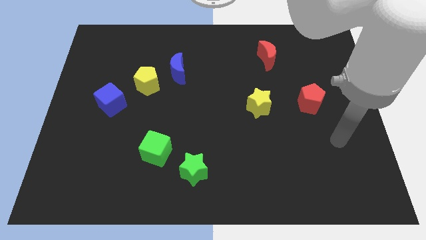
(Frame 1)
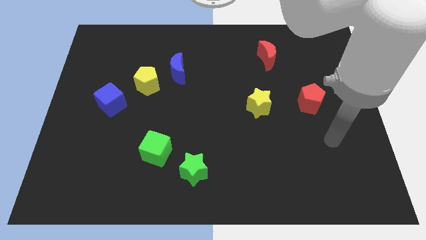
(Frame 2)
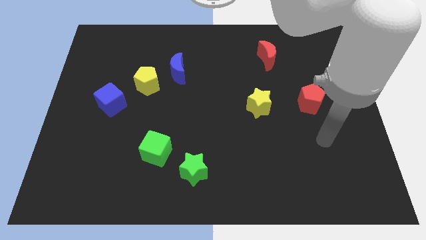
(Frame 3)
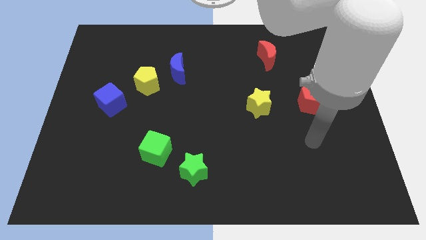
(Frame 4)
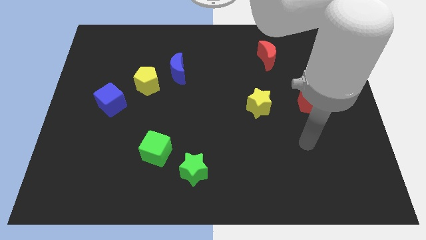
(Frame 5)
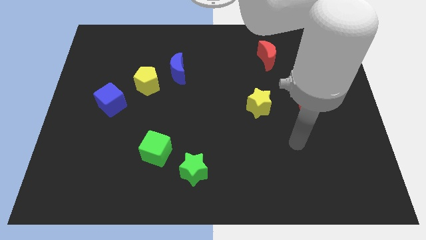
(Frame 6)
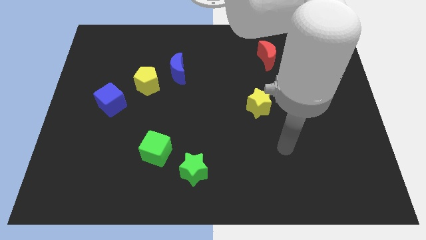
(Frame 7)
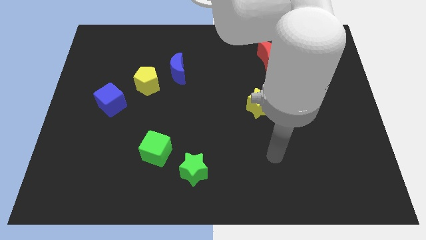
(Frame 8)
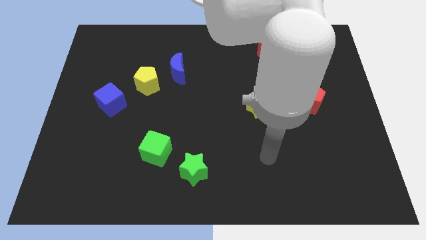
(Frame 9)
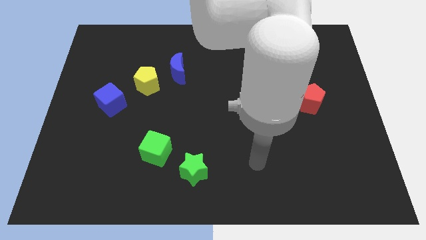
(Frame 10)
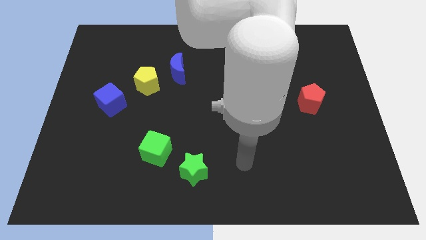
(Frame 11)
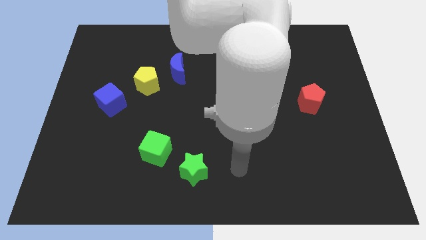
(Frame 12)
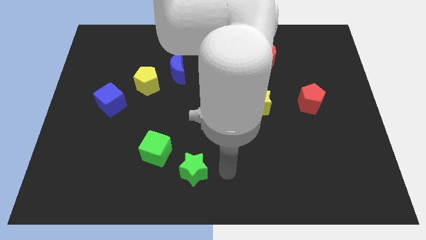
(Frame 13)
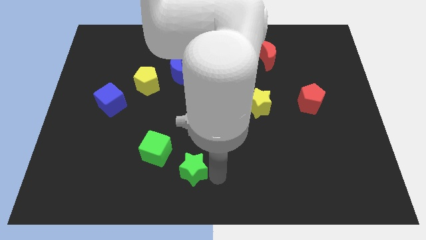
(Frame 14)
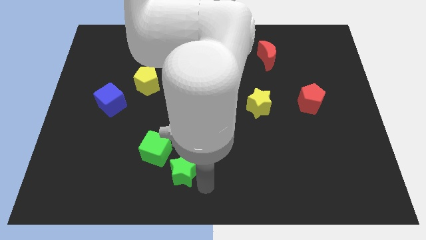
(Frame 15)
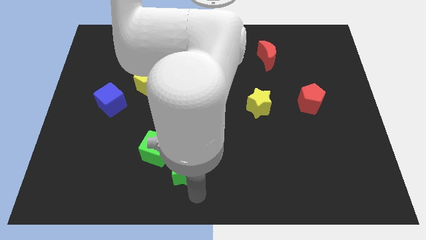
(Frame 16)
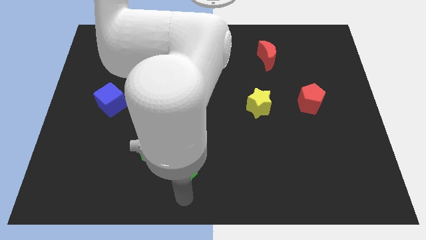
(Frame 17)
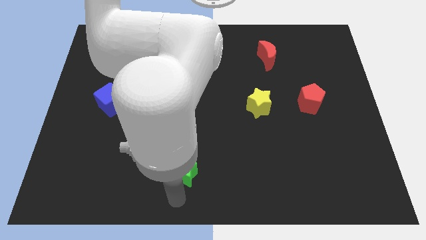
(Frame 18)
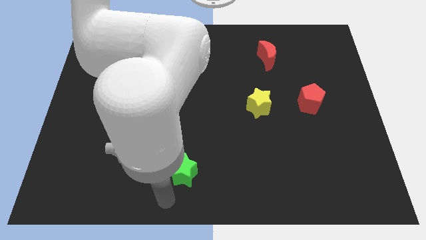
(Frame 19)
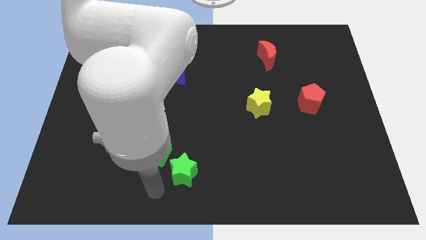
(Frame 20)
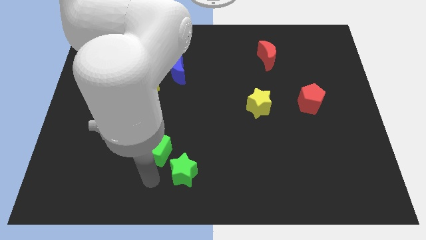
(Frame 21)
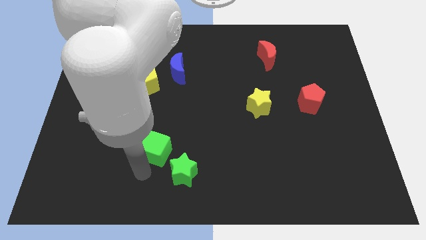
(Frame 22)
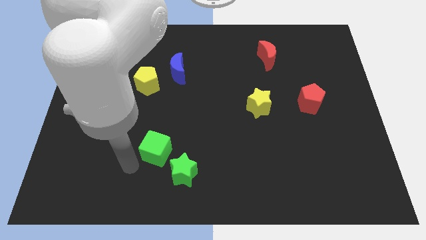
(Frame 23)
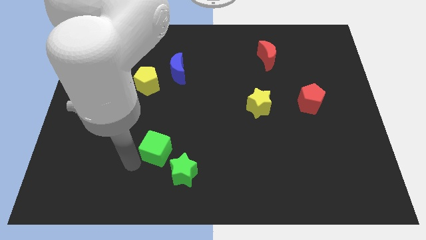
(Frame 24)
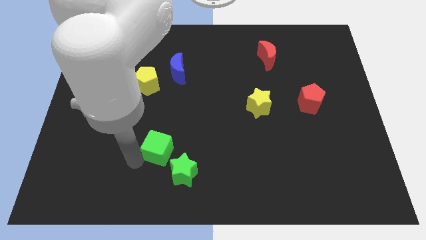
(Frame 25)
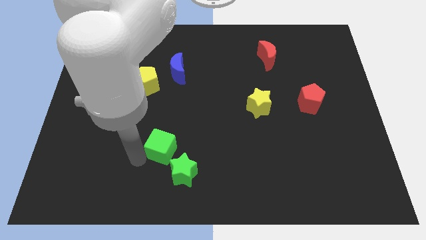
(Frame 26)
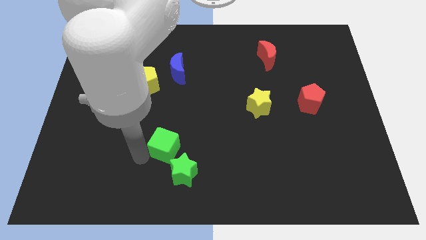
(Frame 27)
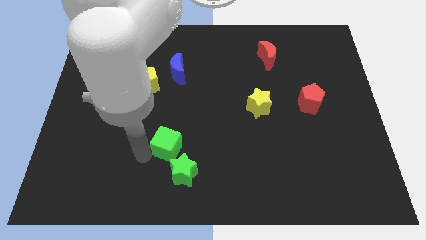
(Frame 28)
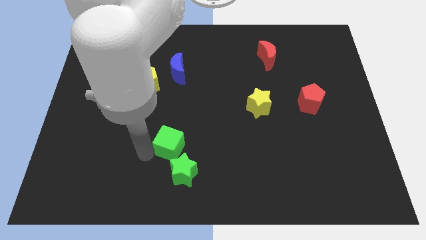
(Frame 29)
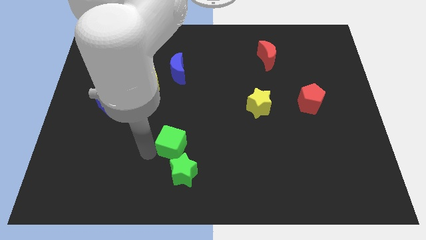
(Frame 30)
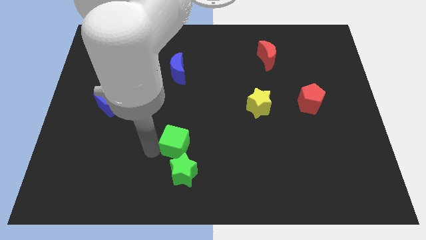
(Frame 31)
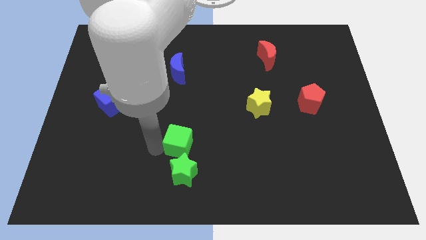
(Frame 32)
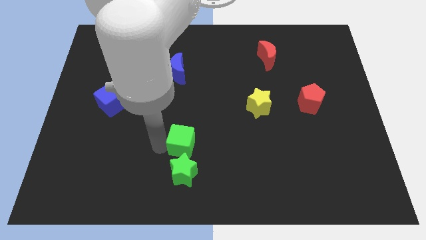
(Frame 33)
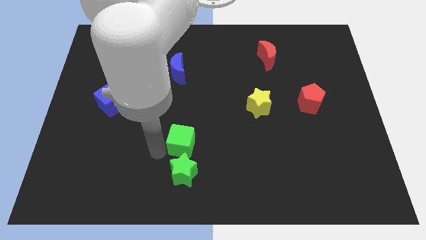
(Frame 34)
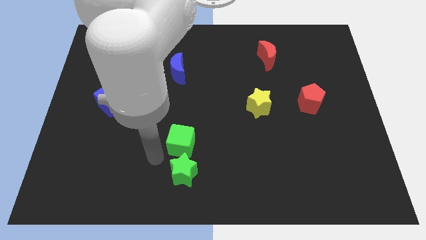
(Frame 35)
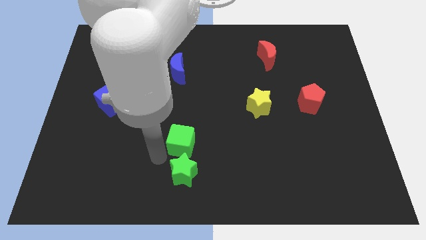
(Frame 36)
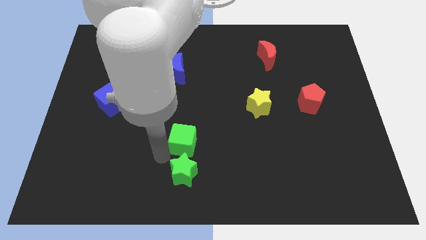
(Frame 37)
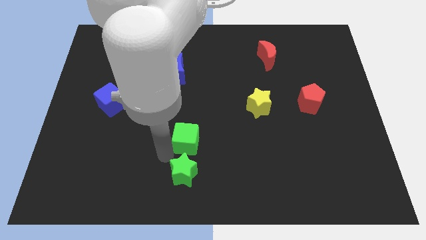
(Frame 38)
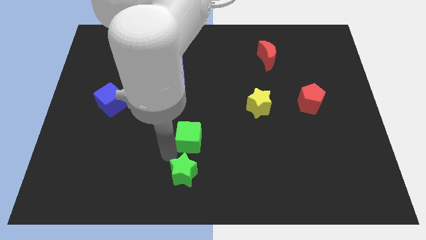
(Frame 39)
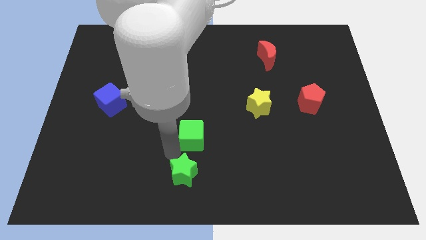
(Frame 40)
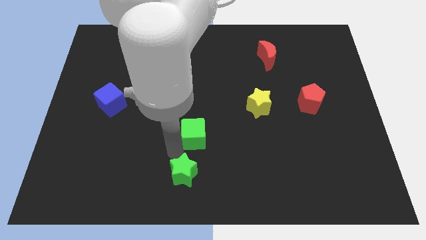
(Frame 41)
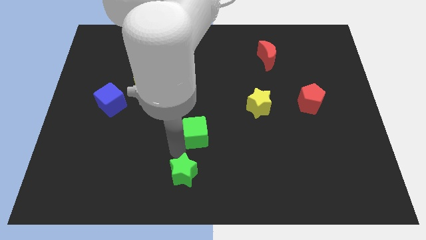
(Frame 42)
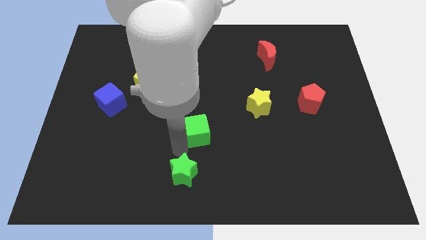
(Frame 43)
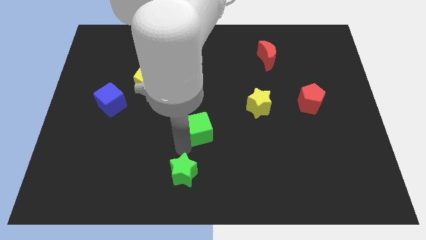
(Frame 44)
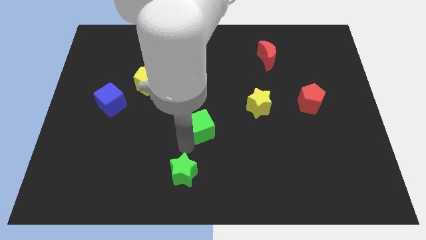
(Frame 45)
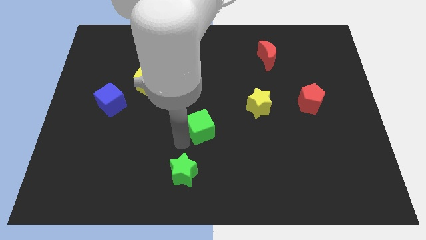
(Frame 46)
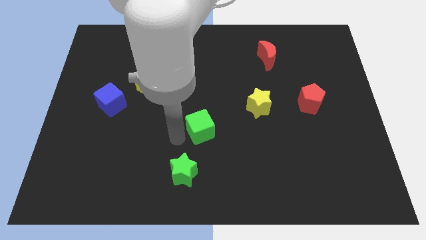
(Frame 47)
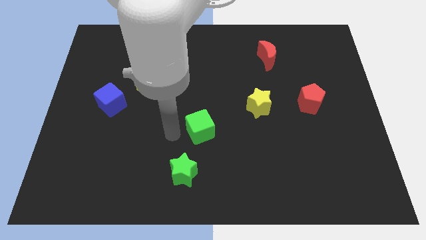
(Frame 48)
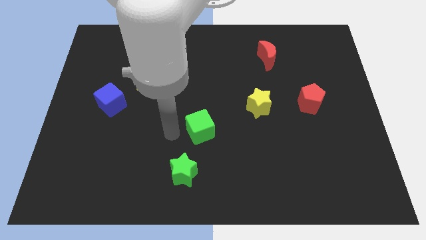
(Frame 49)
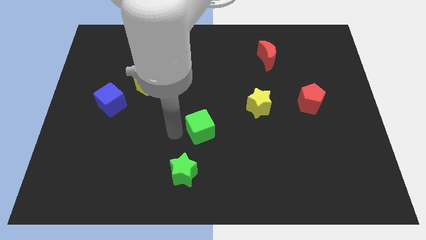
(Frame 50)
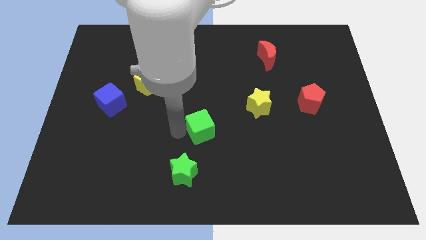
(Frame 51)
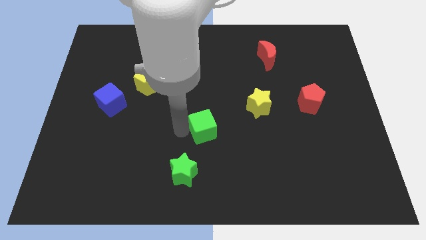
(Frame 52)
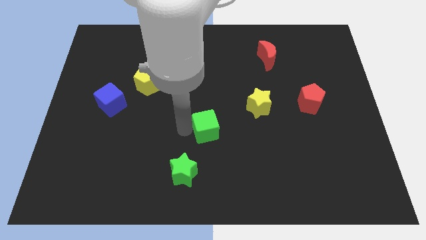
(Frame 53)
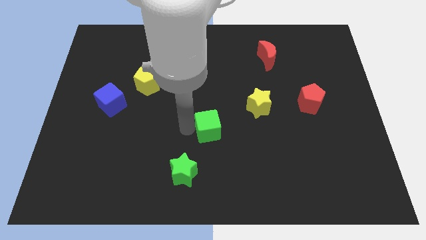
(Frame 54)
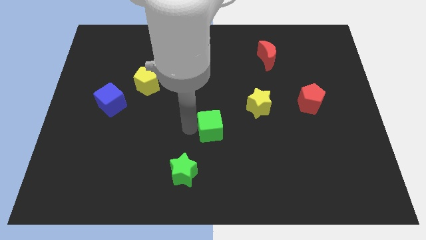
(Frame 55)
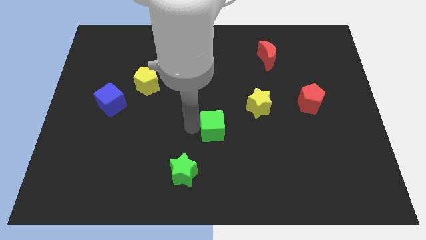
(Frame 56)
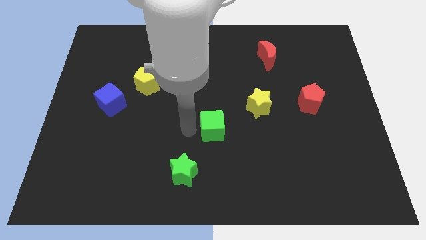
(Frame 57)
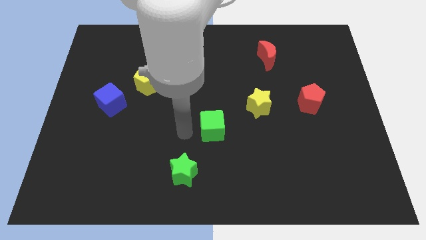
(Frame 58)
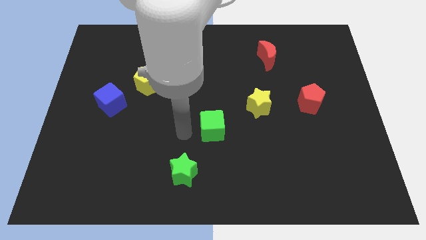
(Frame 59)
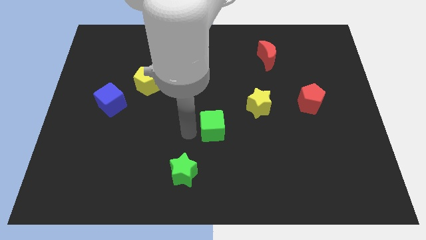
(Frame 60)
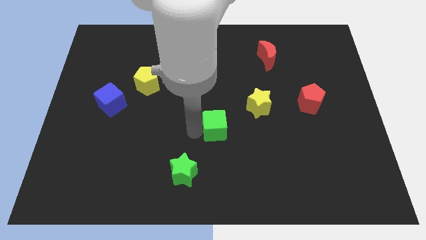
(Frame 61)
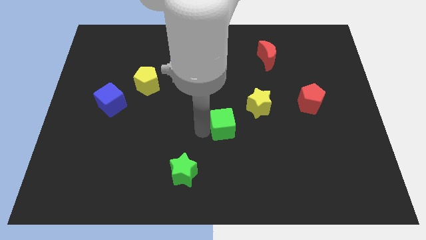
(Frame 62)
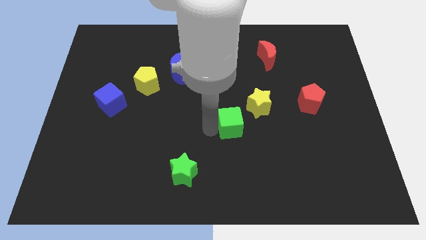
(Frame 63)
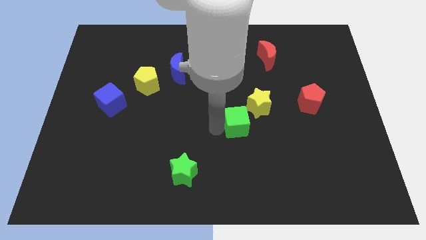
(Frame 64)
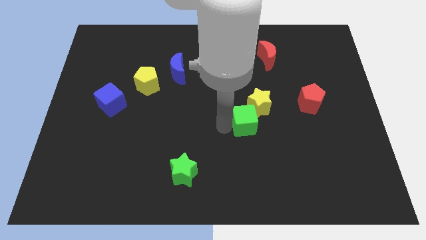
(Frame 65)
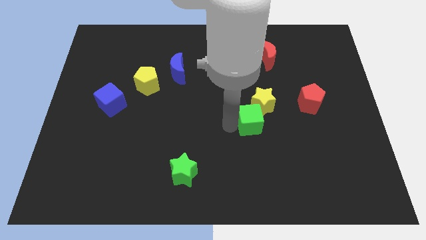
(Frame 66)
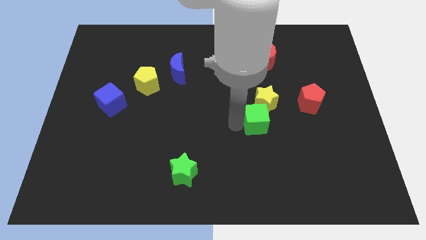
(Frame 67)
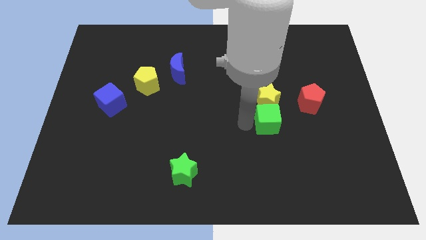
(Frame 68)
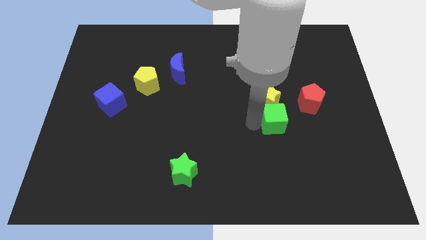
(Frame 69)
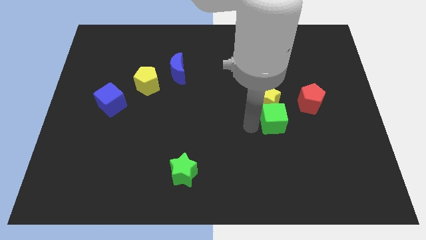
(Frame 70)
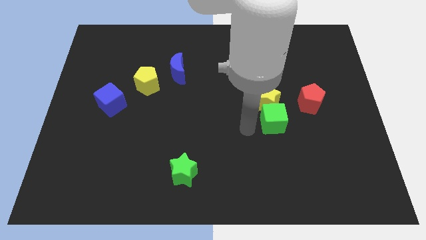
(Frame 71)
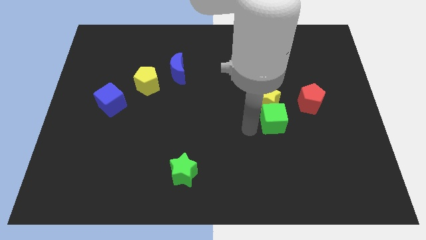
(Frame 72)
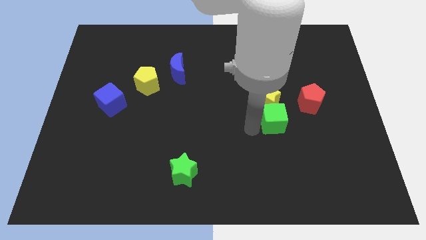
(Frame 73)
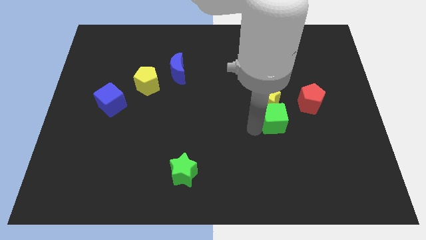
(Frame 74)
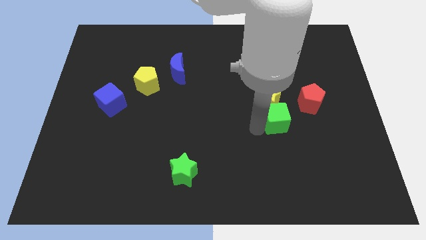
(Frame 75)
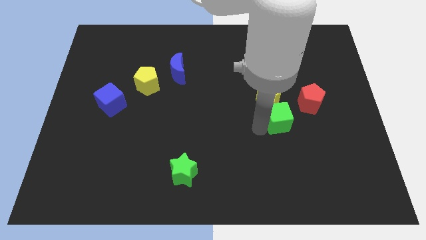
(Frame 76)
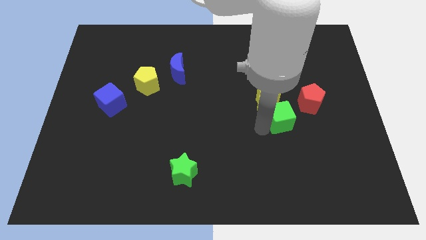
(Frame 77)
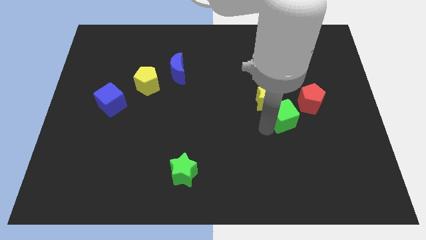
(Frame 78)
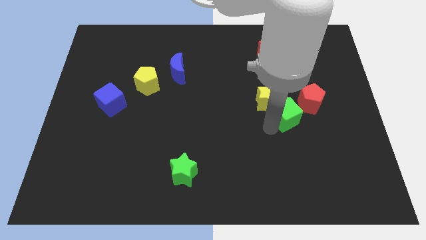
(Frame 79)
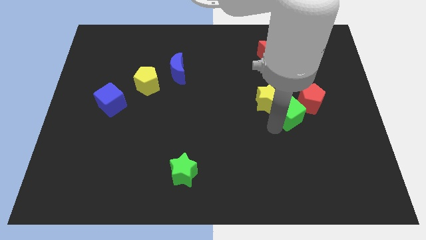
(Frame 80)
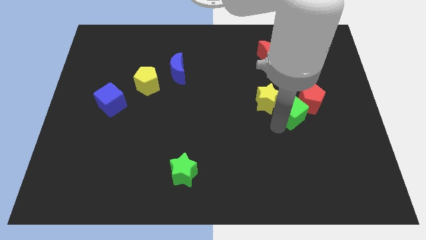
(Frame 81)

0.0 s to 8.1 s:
move the green cube next to the red pentagon
